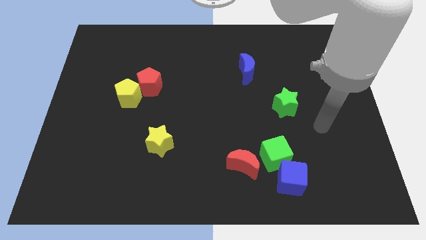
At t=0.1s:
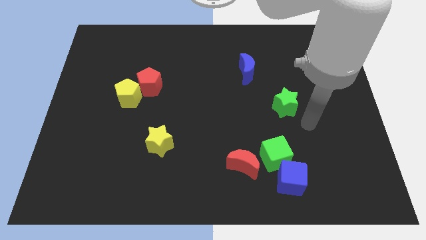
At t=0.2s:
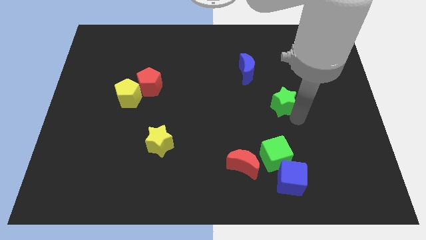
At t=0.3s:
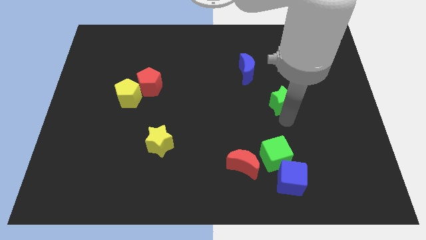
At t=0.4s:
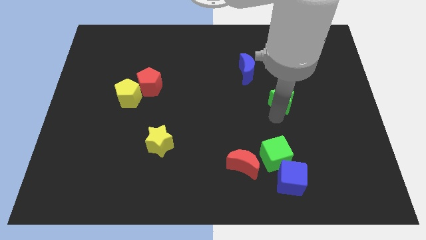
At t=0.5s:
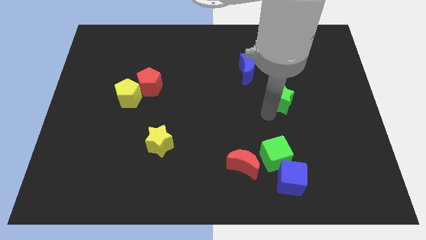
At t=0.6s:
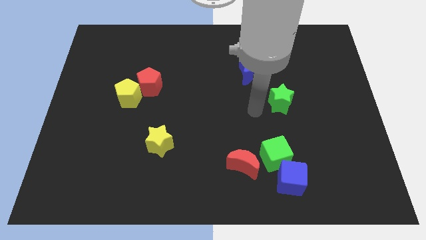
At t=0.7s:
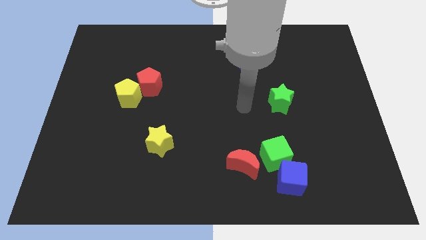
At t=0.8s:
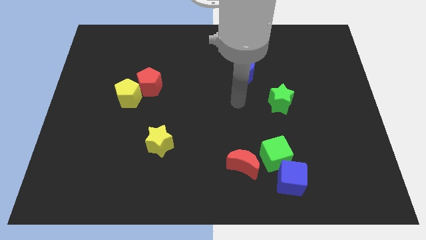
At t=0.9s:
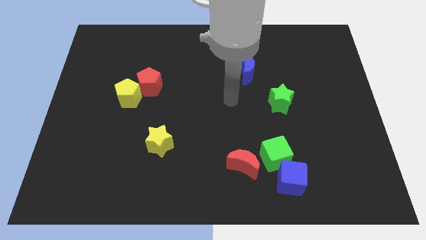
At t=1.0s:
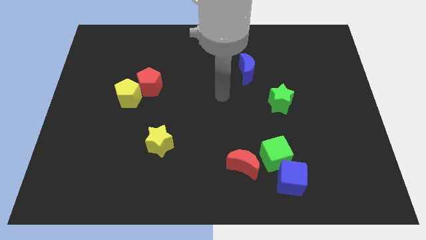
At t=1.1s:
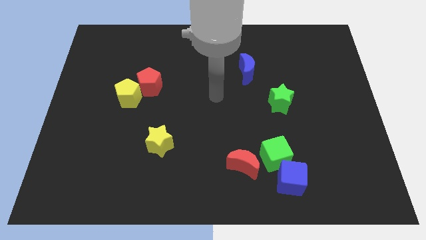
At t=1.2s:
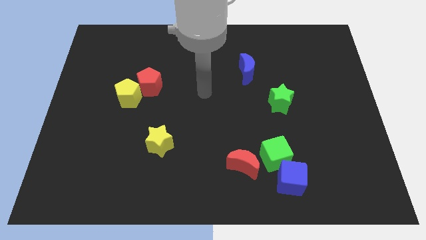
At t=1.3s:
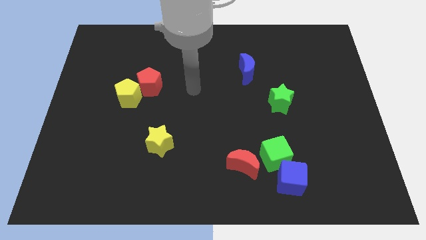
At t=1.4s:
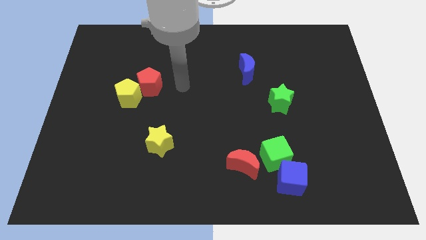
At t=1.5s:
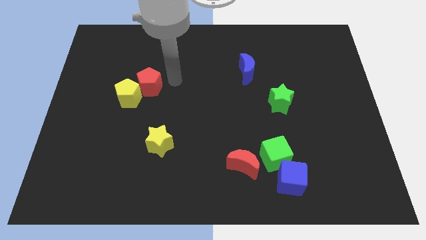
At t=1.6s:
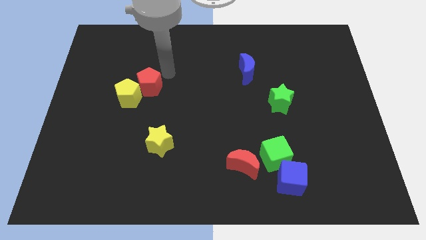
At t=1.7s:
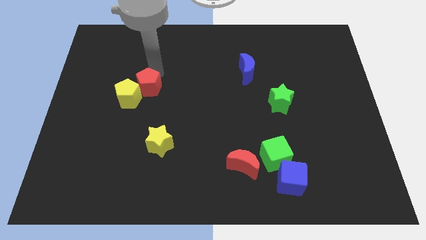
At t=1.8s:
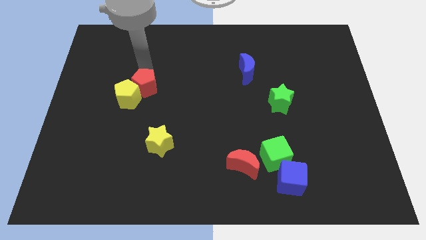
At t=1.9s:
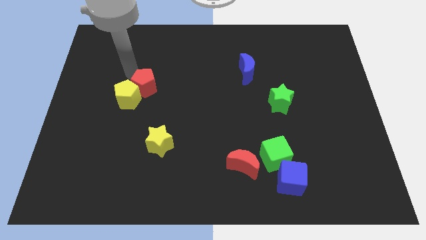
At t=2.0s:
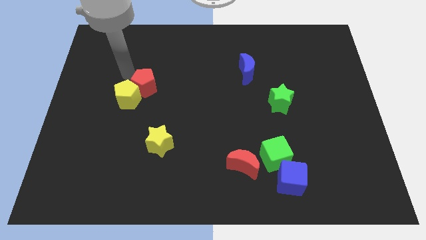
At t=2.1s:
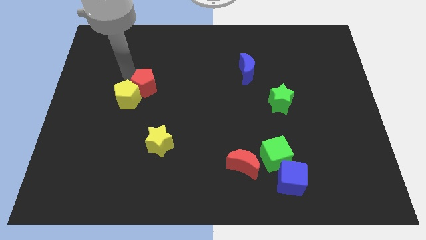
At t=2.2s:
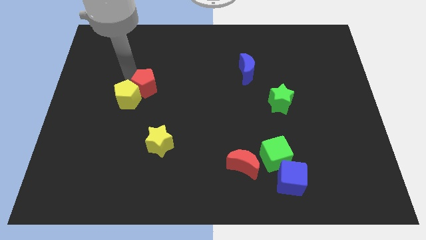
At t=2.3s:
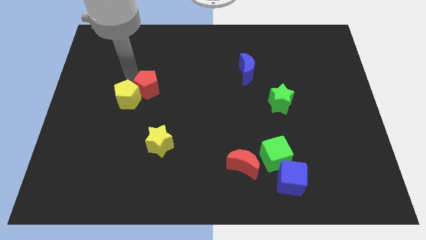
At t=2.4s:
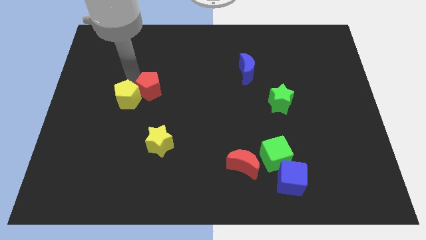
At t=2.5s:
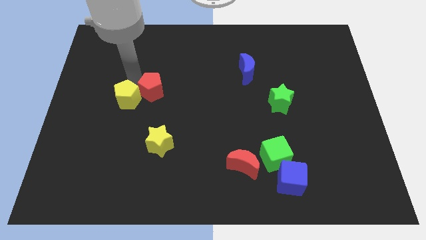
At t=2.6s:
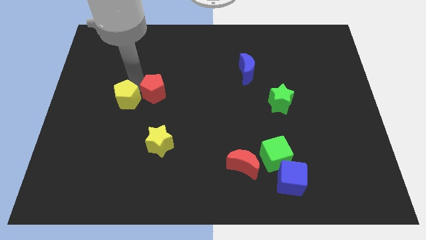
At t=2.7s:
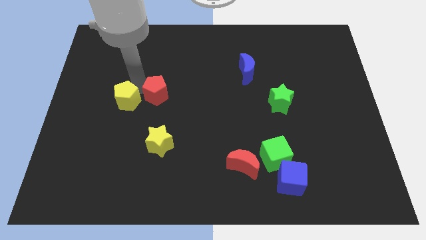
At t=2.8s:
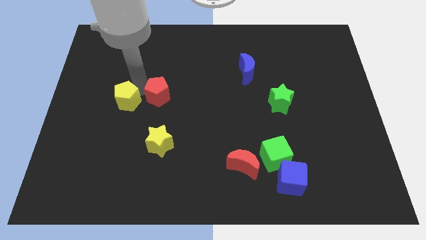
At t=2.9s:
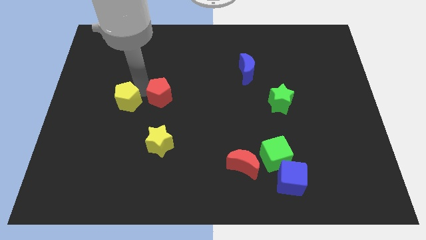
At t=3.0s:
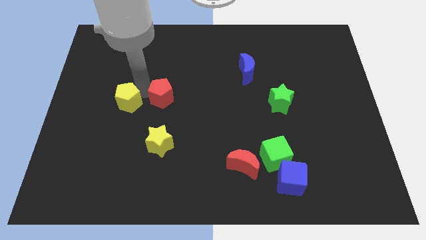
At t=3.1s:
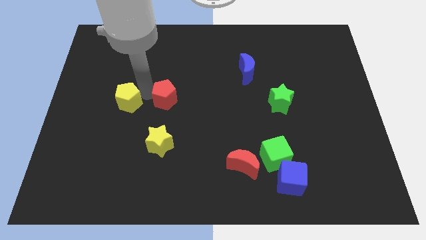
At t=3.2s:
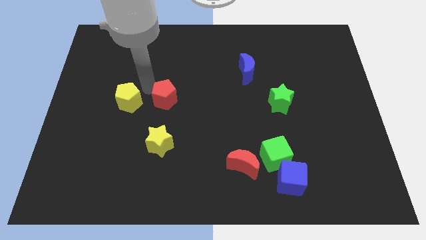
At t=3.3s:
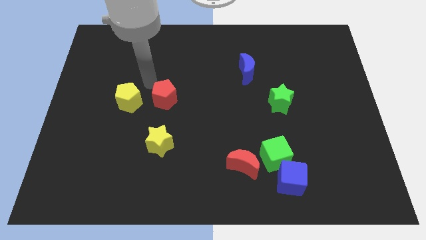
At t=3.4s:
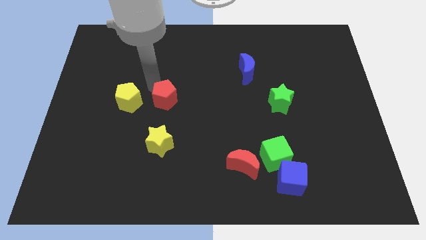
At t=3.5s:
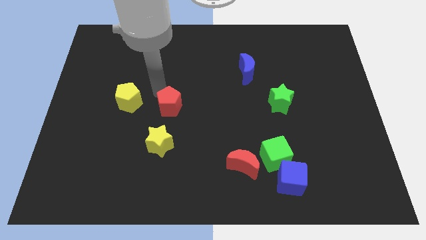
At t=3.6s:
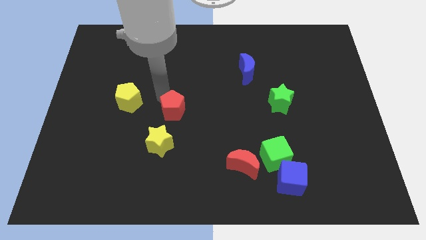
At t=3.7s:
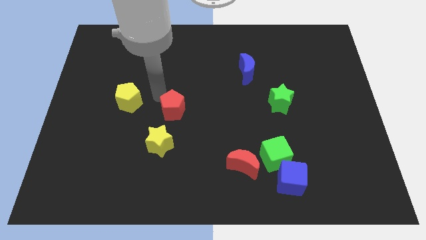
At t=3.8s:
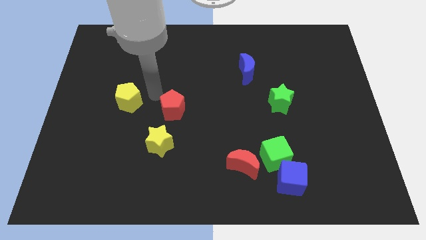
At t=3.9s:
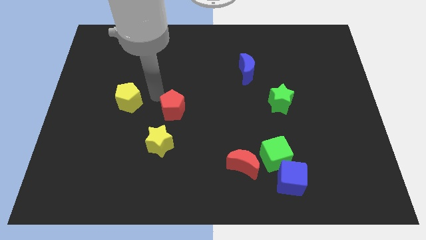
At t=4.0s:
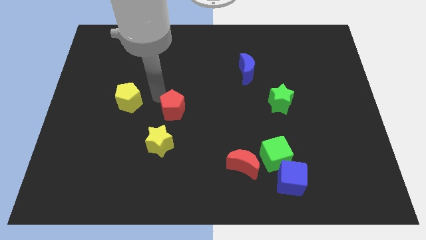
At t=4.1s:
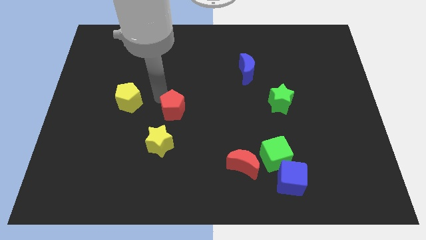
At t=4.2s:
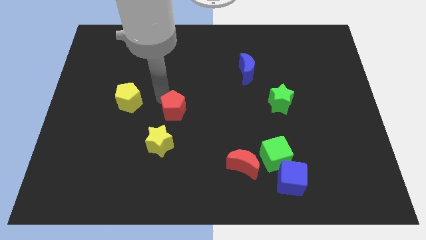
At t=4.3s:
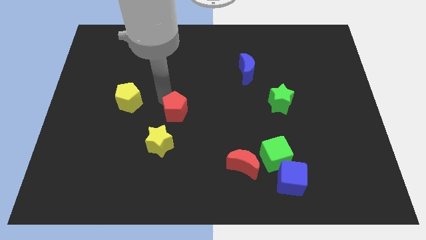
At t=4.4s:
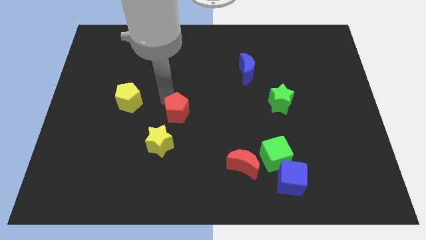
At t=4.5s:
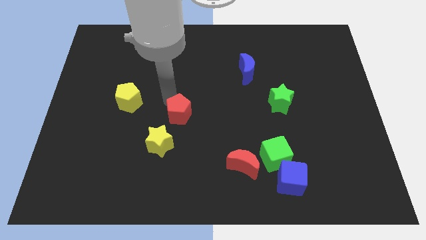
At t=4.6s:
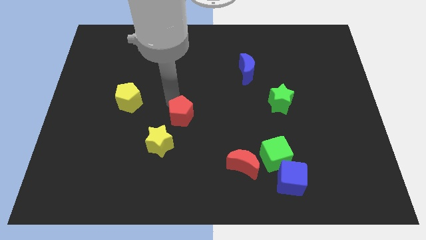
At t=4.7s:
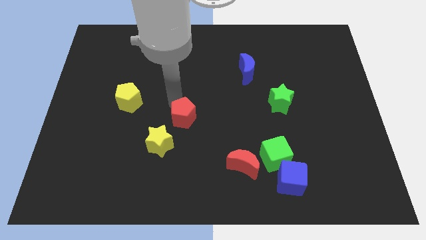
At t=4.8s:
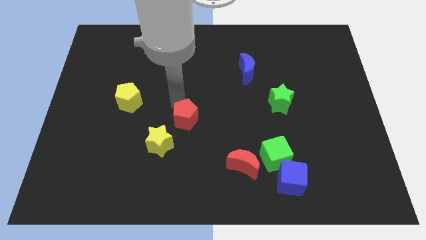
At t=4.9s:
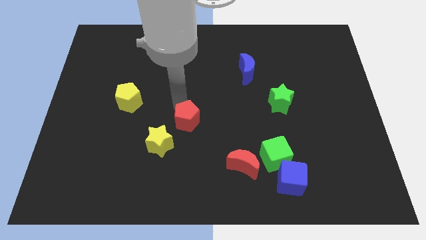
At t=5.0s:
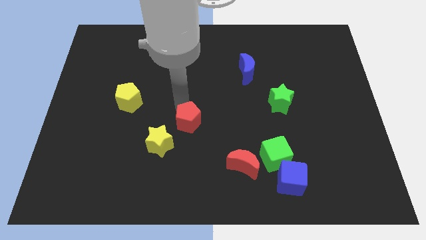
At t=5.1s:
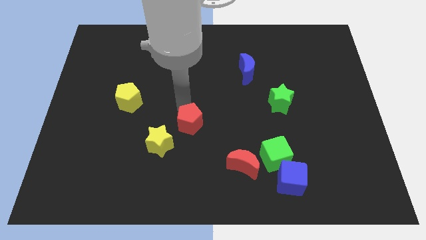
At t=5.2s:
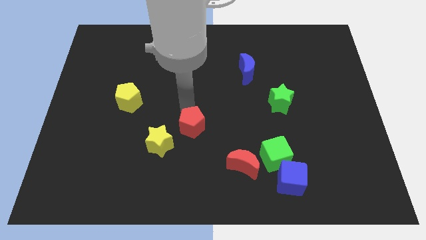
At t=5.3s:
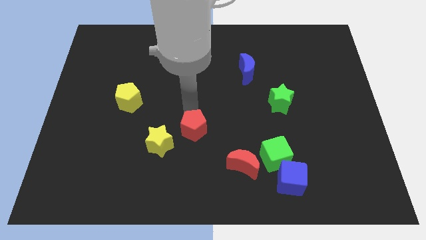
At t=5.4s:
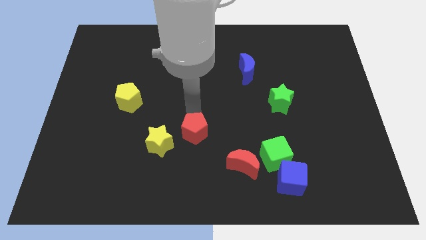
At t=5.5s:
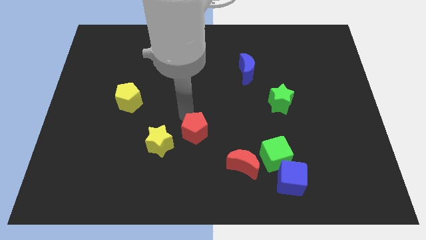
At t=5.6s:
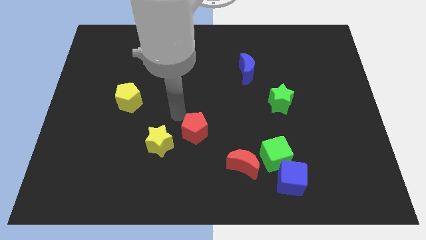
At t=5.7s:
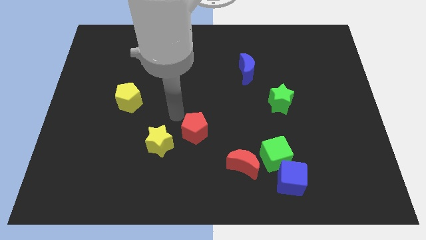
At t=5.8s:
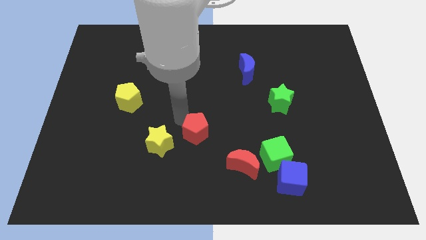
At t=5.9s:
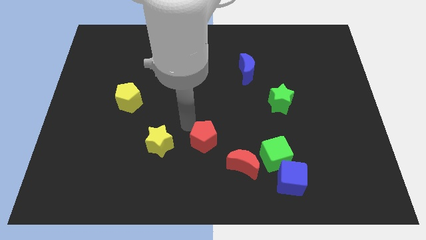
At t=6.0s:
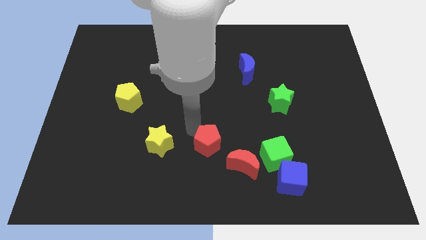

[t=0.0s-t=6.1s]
slide the red pentagon to the left of the green cube

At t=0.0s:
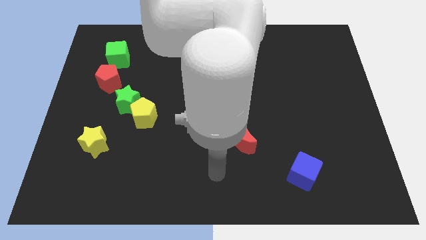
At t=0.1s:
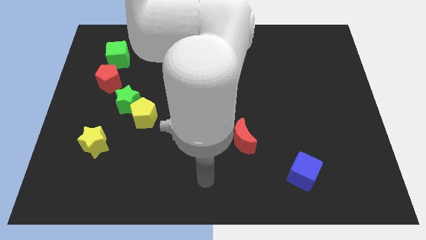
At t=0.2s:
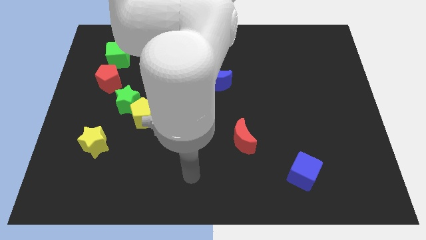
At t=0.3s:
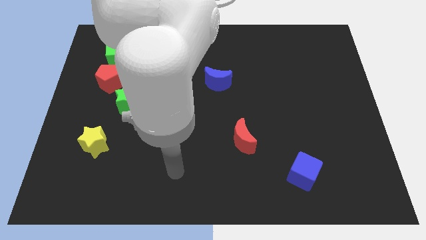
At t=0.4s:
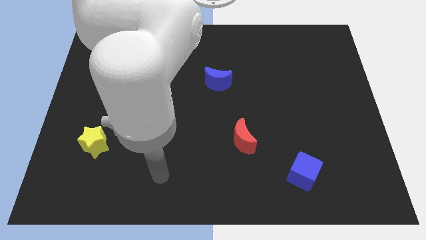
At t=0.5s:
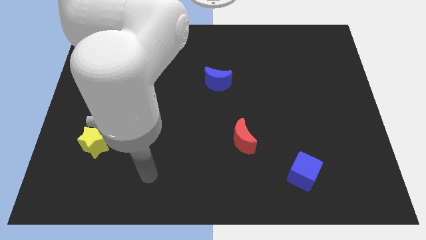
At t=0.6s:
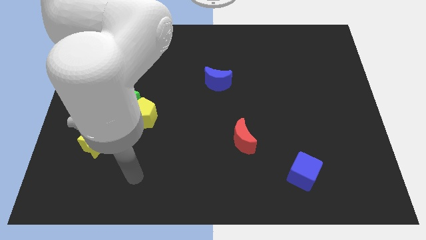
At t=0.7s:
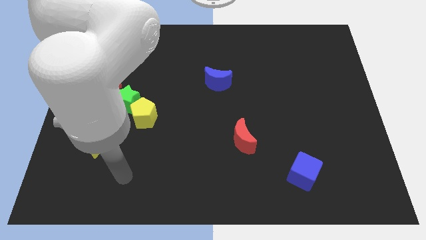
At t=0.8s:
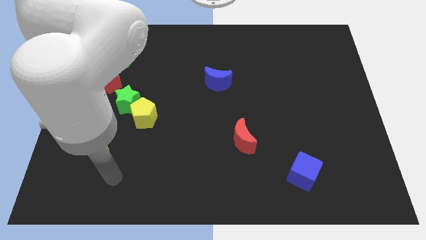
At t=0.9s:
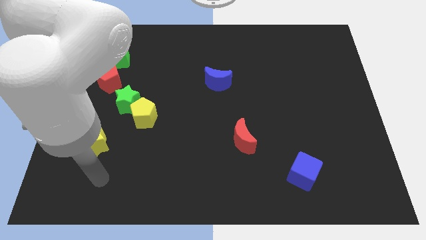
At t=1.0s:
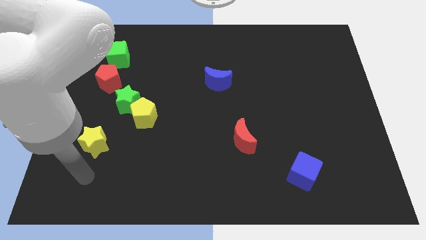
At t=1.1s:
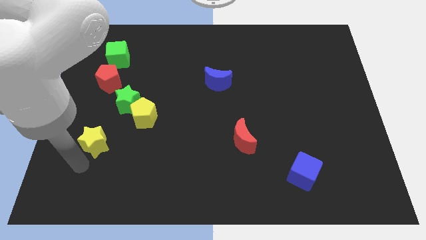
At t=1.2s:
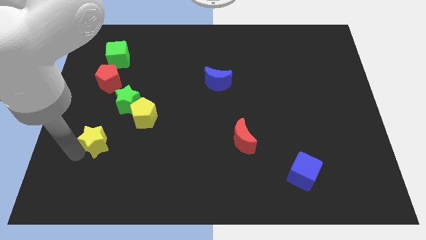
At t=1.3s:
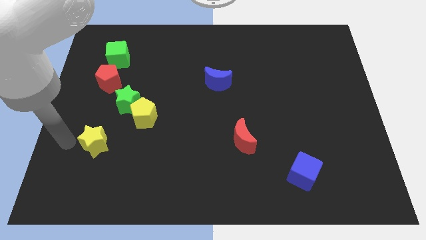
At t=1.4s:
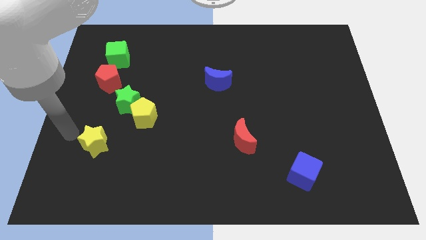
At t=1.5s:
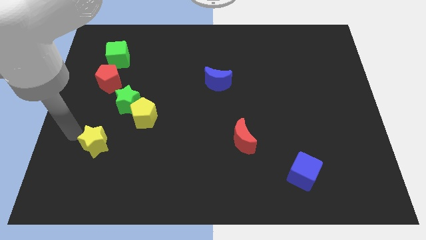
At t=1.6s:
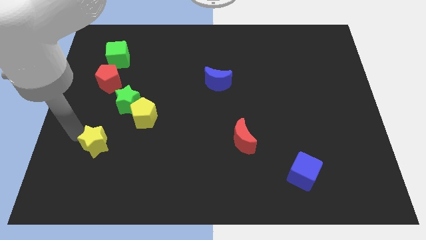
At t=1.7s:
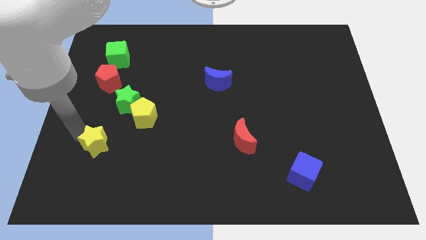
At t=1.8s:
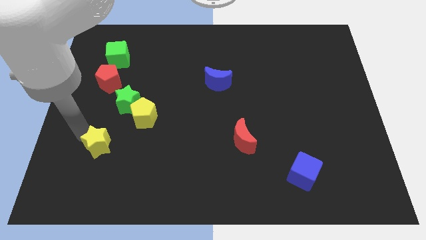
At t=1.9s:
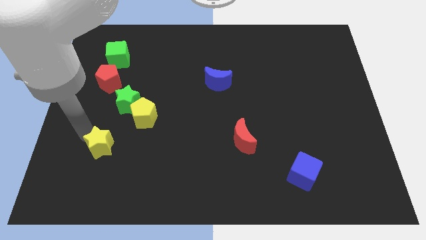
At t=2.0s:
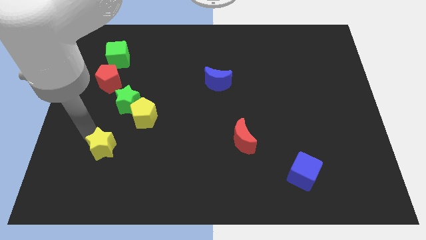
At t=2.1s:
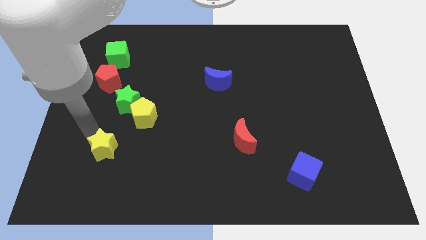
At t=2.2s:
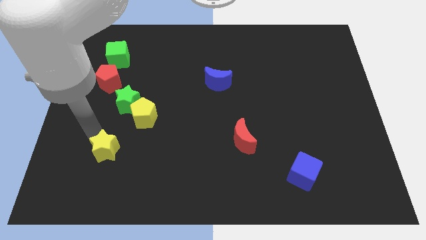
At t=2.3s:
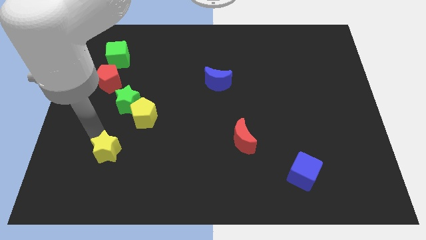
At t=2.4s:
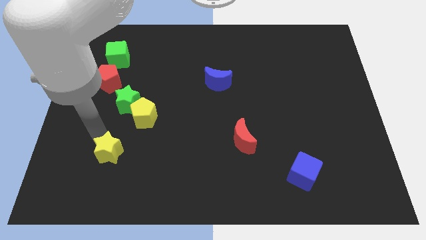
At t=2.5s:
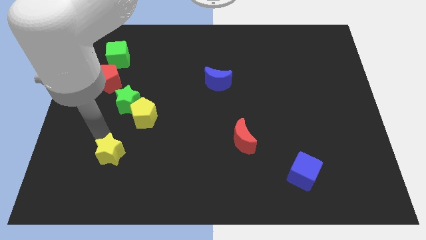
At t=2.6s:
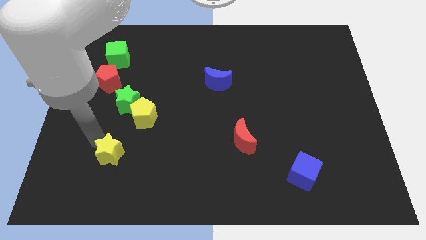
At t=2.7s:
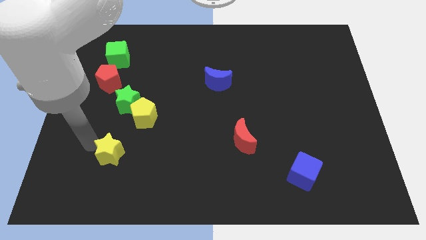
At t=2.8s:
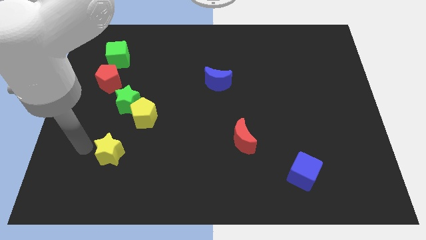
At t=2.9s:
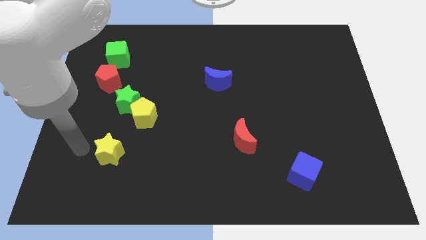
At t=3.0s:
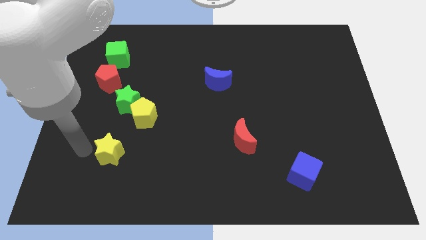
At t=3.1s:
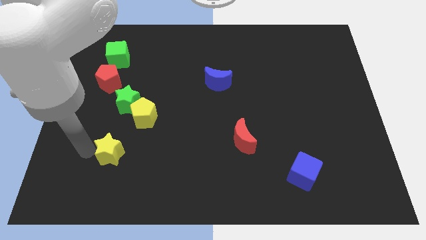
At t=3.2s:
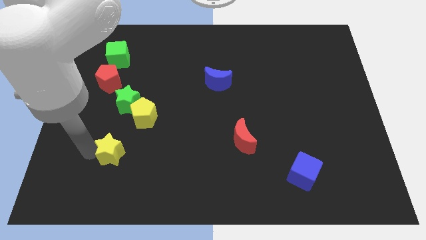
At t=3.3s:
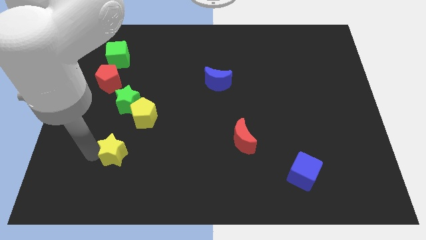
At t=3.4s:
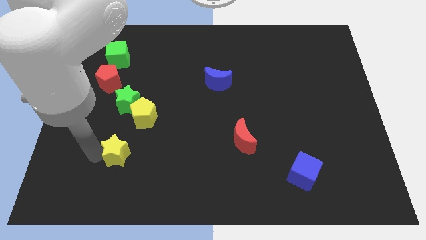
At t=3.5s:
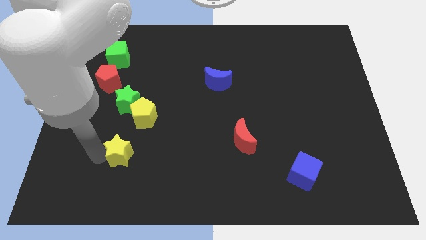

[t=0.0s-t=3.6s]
slide the yellow star to the bottom of the yellow pentagon
